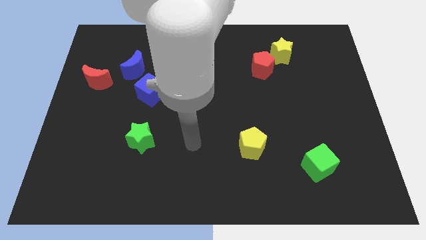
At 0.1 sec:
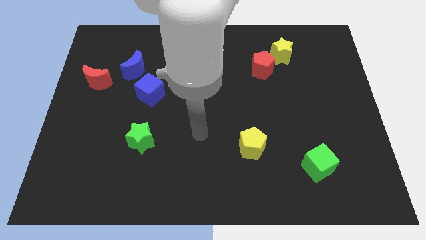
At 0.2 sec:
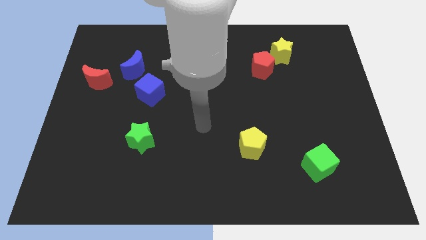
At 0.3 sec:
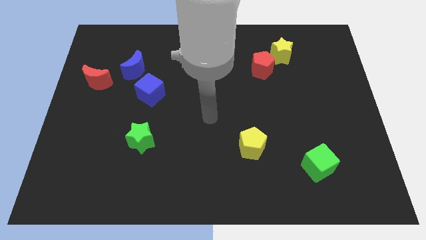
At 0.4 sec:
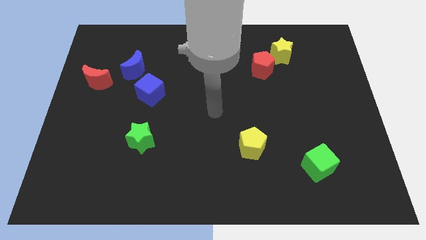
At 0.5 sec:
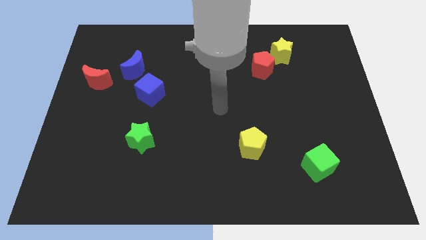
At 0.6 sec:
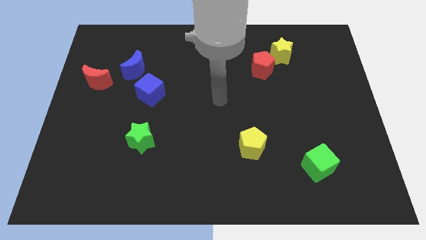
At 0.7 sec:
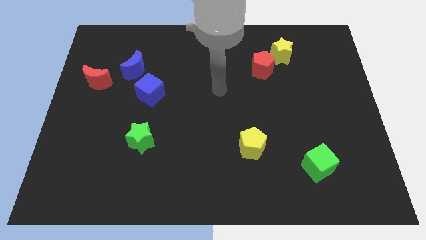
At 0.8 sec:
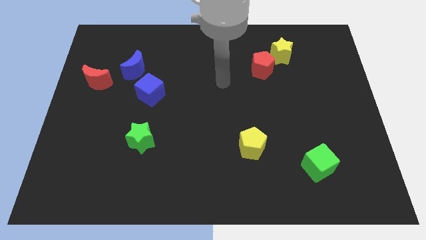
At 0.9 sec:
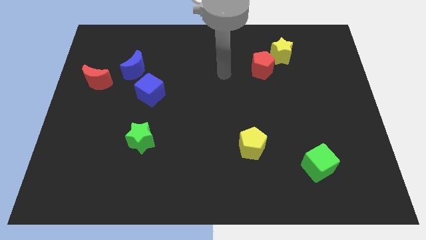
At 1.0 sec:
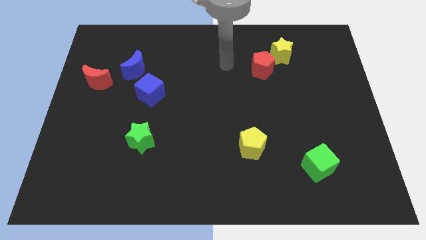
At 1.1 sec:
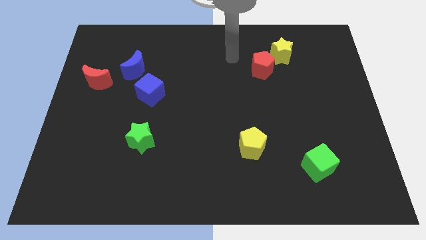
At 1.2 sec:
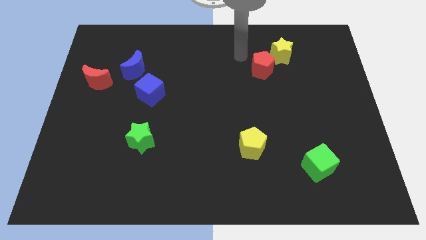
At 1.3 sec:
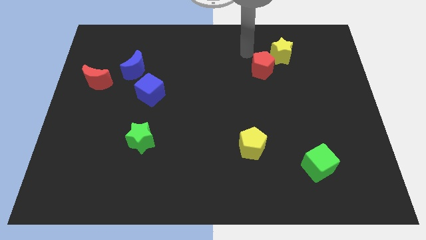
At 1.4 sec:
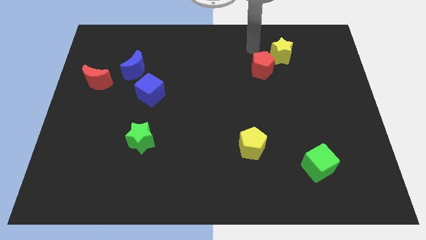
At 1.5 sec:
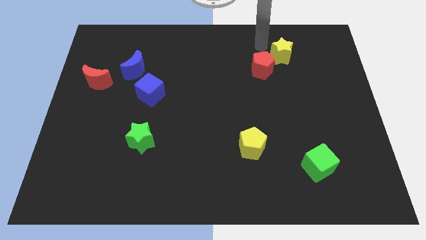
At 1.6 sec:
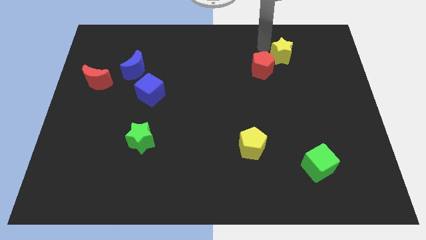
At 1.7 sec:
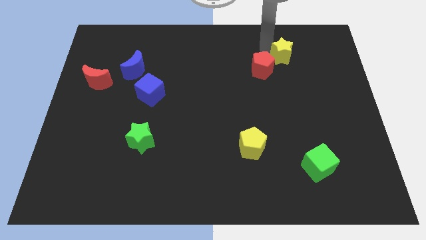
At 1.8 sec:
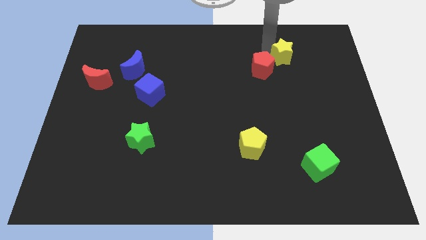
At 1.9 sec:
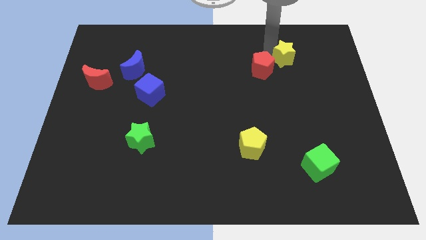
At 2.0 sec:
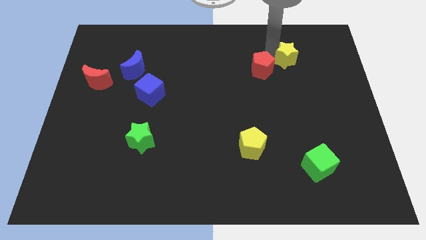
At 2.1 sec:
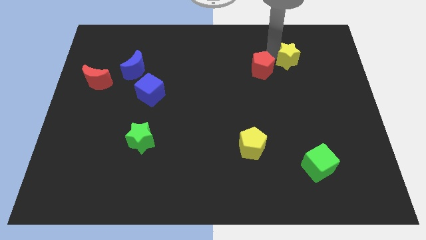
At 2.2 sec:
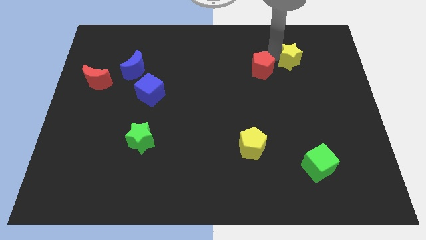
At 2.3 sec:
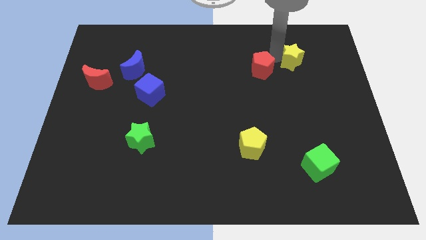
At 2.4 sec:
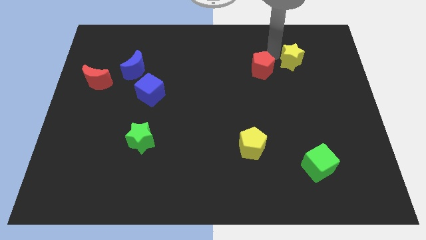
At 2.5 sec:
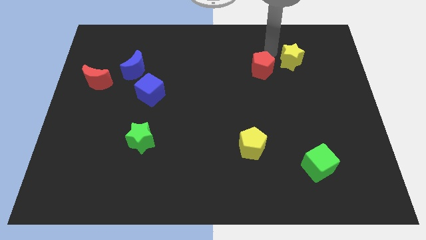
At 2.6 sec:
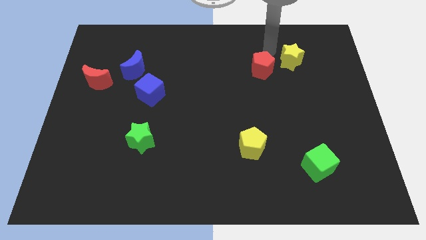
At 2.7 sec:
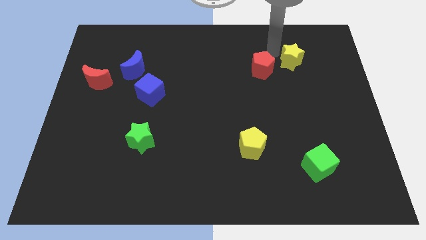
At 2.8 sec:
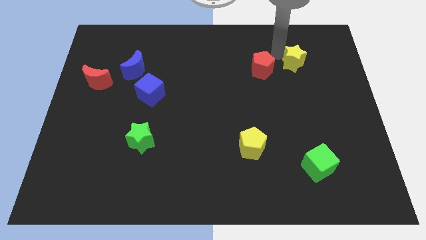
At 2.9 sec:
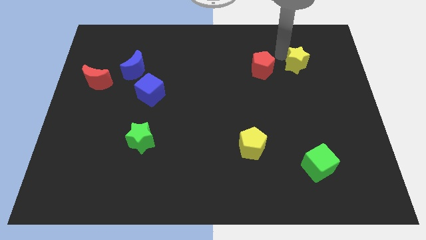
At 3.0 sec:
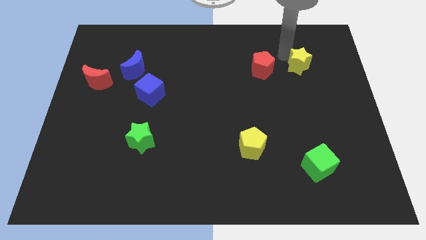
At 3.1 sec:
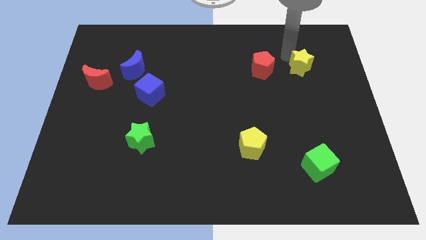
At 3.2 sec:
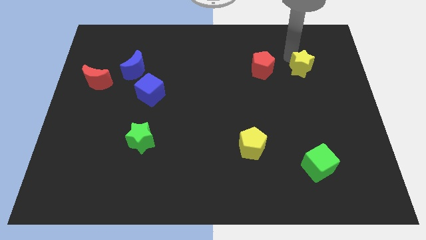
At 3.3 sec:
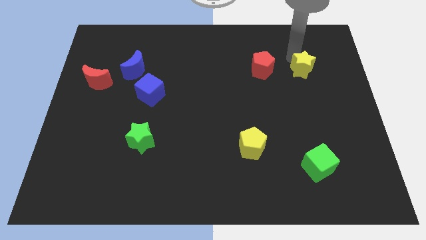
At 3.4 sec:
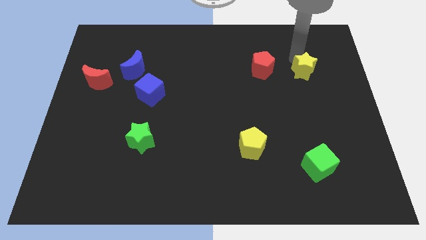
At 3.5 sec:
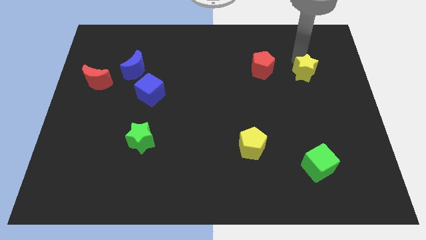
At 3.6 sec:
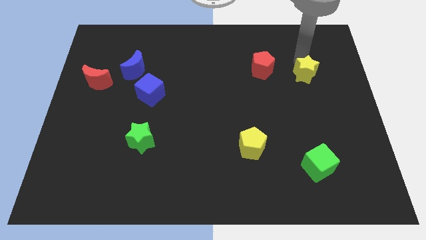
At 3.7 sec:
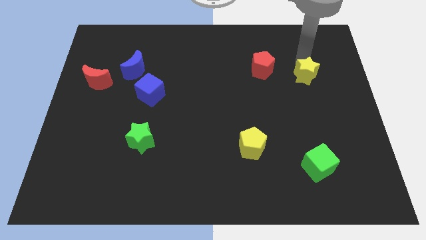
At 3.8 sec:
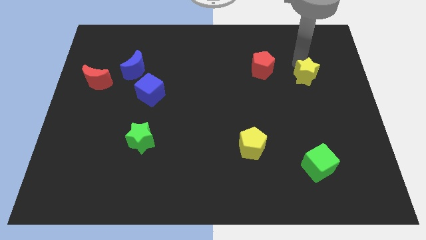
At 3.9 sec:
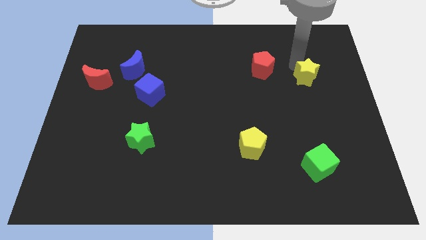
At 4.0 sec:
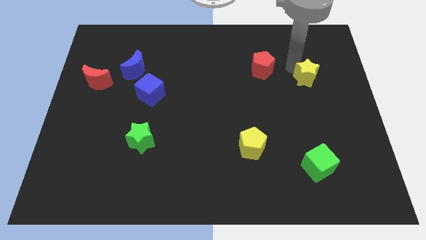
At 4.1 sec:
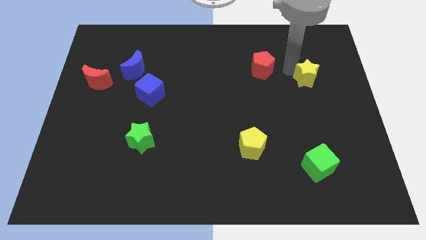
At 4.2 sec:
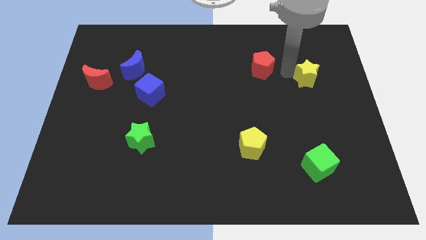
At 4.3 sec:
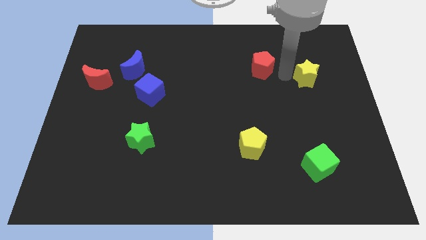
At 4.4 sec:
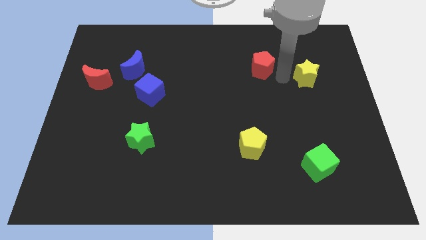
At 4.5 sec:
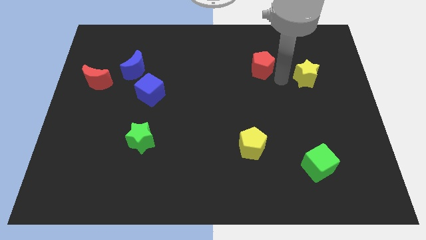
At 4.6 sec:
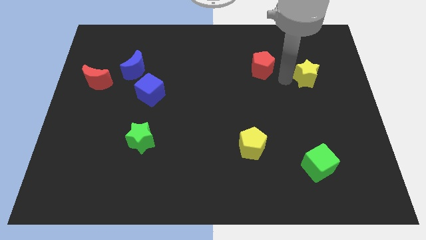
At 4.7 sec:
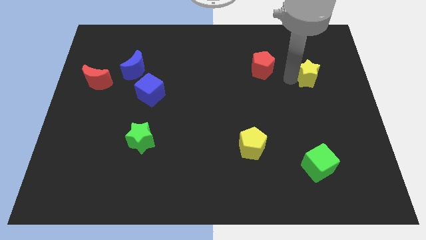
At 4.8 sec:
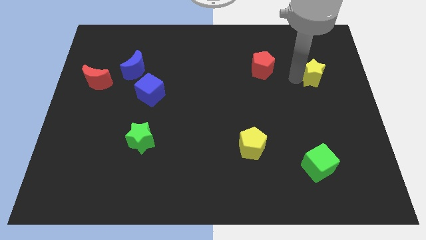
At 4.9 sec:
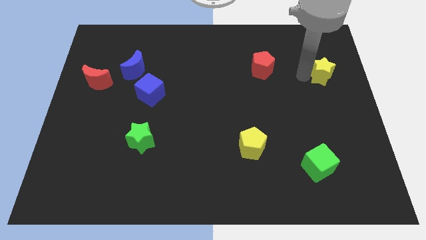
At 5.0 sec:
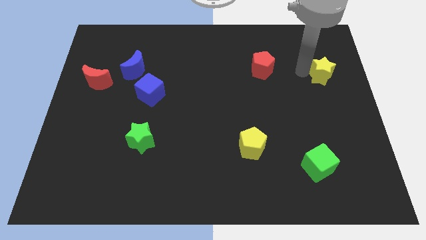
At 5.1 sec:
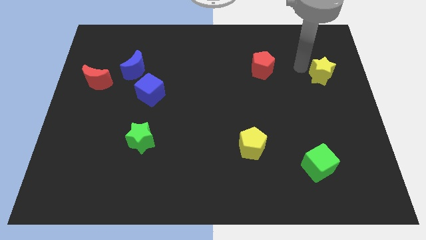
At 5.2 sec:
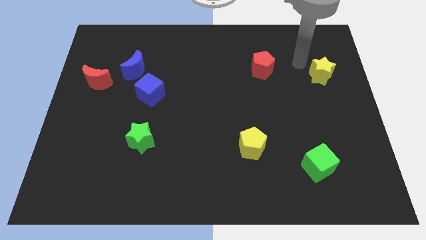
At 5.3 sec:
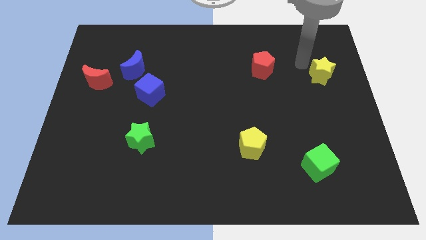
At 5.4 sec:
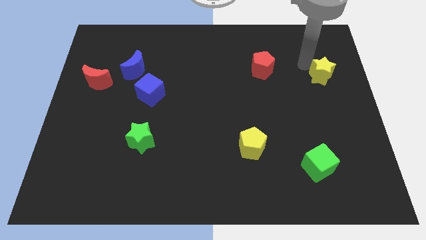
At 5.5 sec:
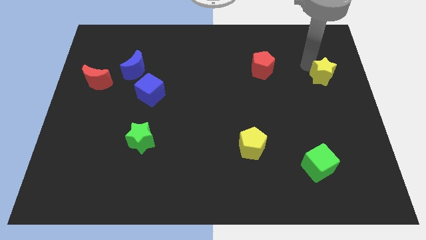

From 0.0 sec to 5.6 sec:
push the yellow star to the right side of the board
